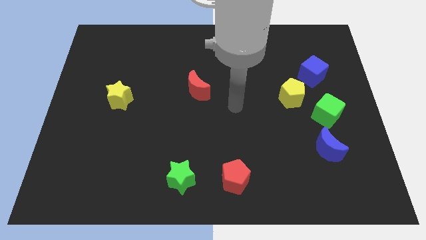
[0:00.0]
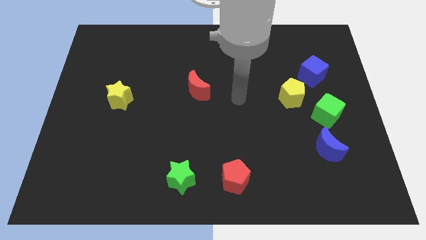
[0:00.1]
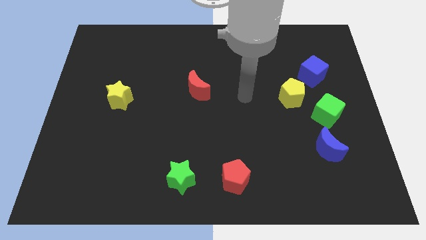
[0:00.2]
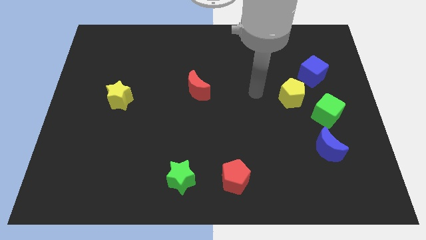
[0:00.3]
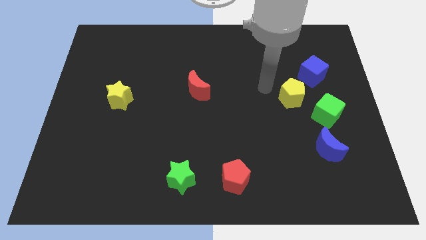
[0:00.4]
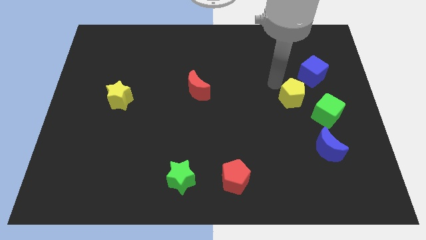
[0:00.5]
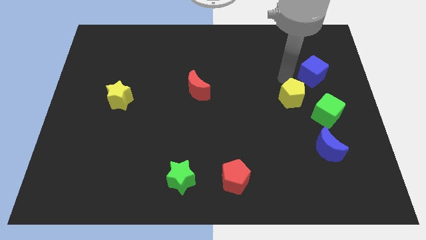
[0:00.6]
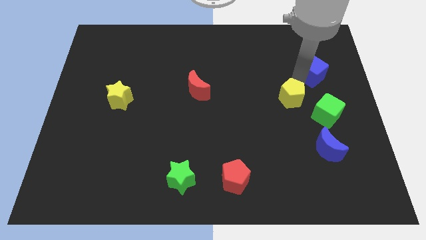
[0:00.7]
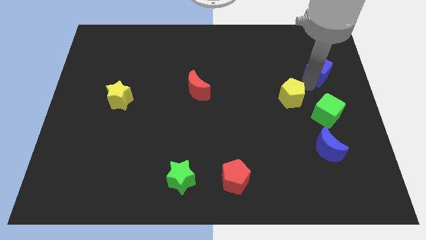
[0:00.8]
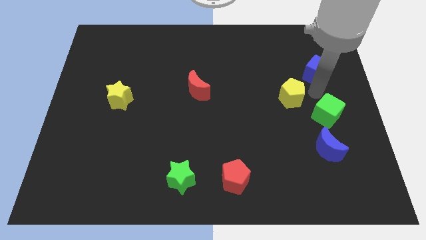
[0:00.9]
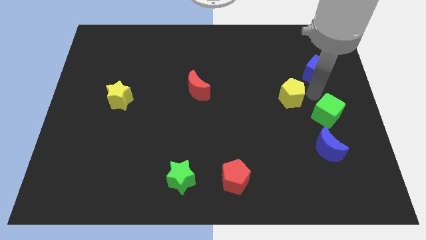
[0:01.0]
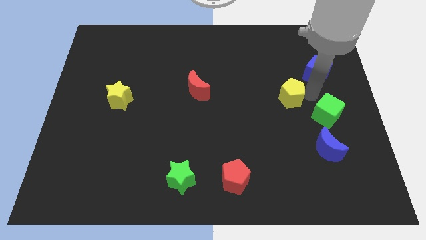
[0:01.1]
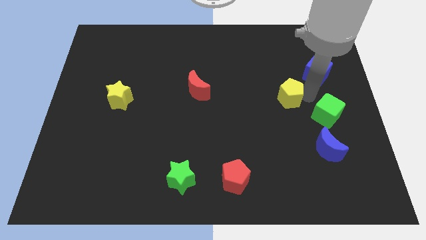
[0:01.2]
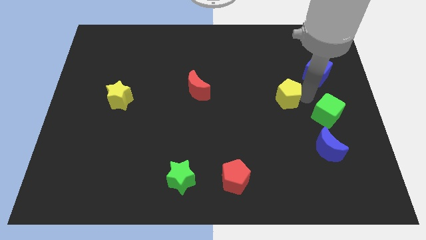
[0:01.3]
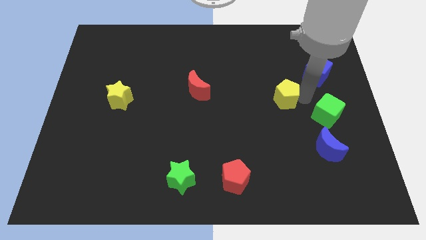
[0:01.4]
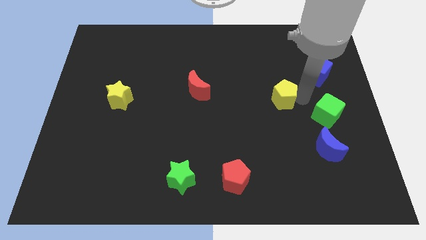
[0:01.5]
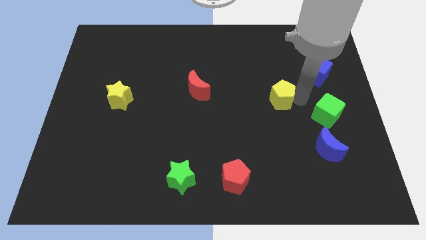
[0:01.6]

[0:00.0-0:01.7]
move the yellow pentagon away from the green cube and blue cube

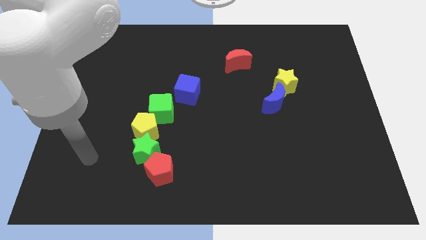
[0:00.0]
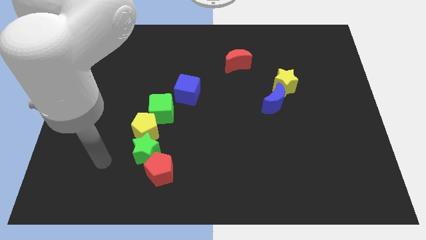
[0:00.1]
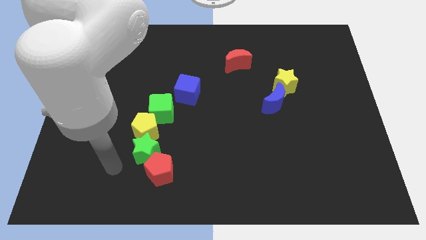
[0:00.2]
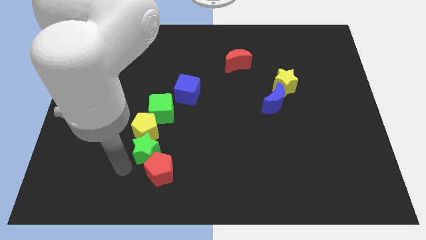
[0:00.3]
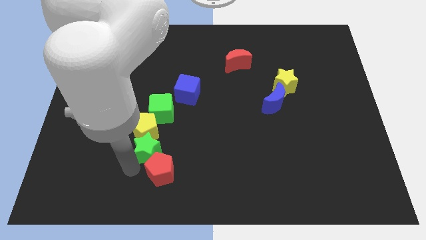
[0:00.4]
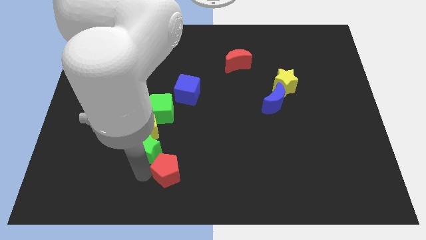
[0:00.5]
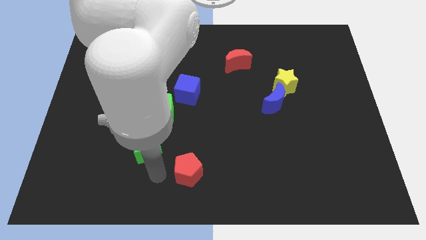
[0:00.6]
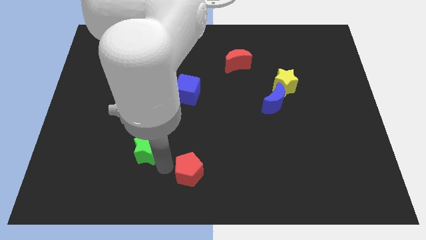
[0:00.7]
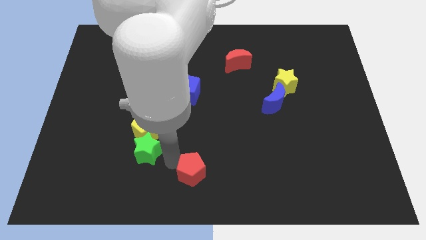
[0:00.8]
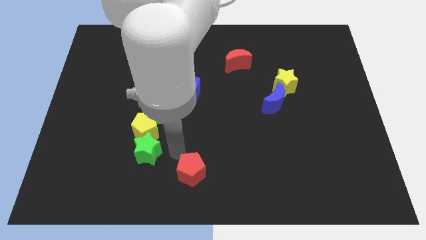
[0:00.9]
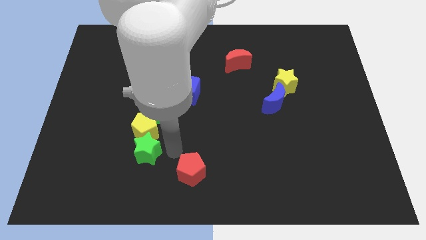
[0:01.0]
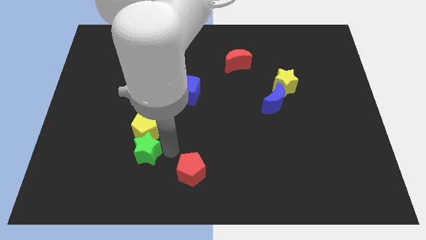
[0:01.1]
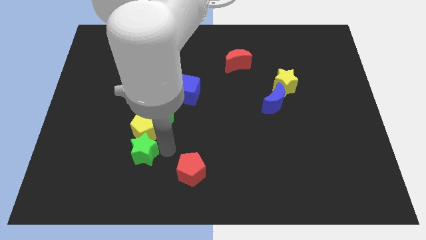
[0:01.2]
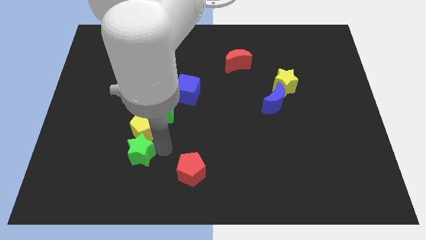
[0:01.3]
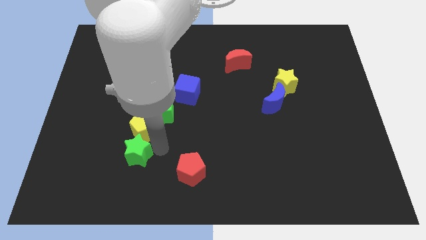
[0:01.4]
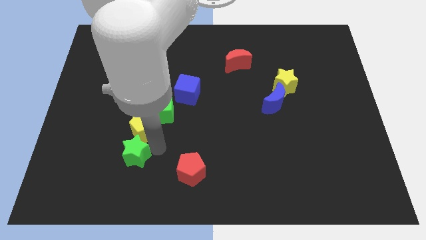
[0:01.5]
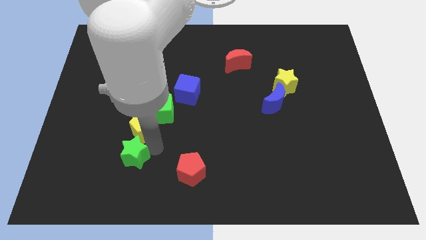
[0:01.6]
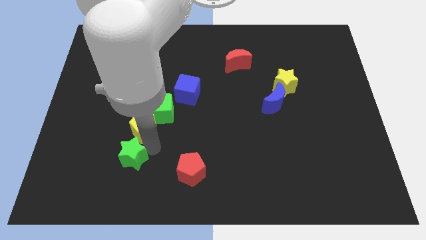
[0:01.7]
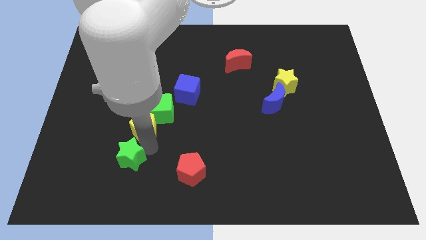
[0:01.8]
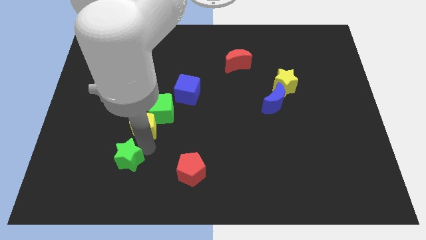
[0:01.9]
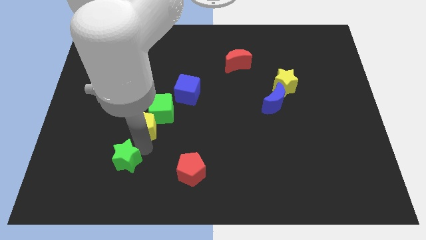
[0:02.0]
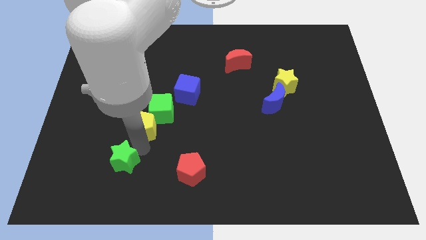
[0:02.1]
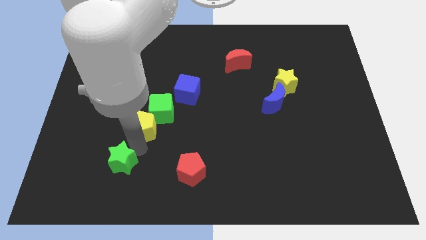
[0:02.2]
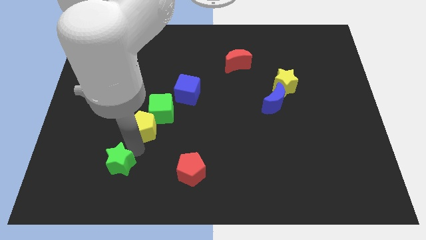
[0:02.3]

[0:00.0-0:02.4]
move the green star away from the yellow pentagon and red pentagon

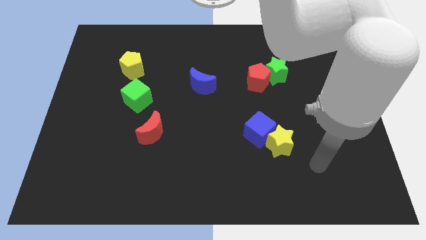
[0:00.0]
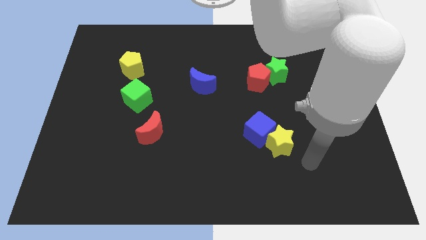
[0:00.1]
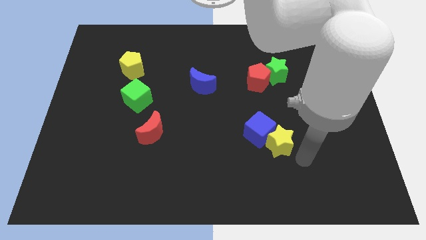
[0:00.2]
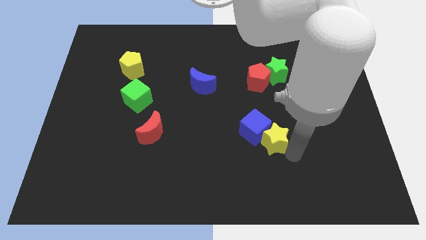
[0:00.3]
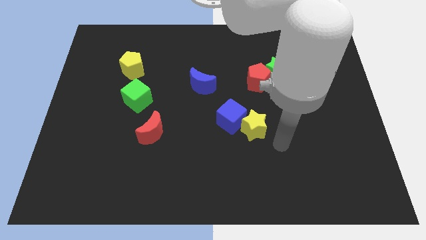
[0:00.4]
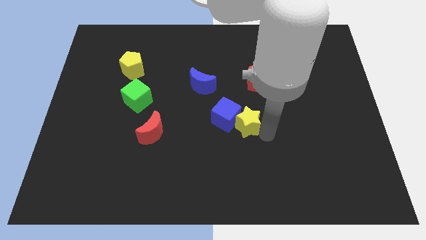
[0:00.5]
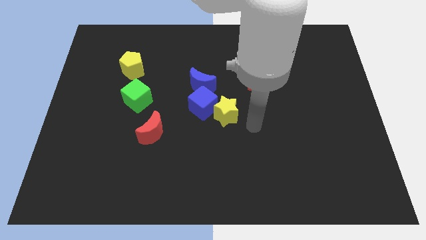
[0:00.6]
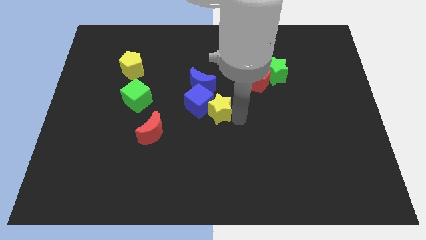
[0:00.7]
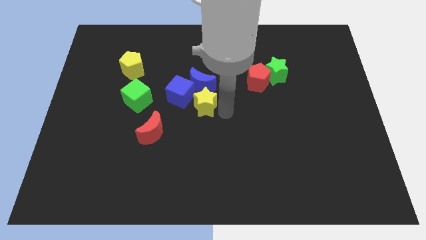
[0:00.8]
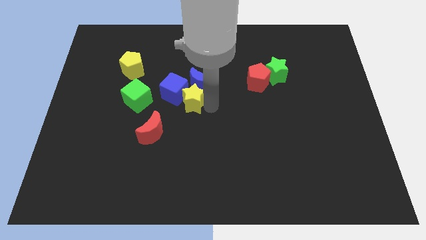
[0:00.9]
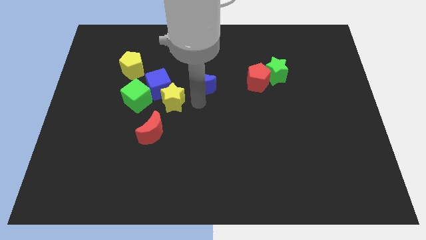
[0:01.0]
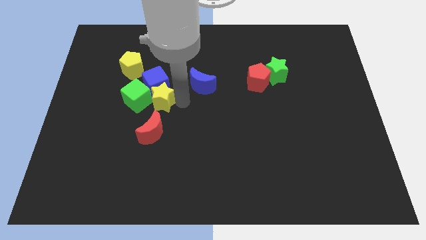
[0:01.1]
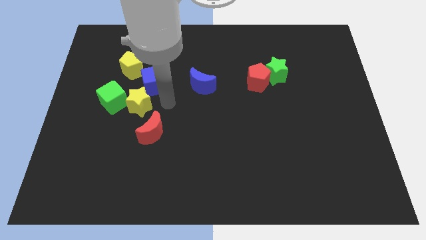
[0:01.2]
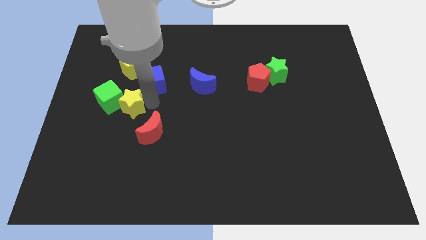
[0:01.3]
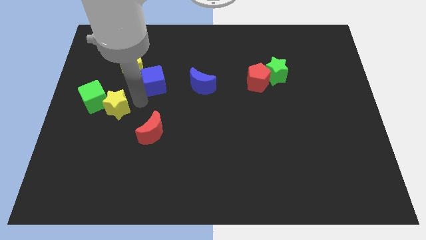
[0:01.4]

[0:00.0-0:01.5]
separate the blue cube from the yellow star

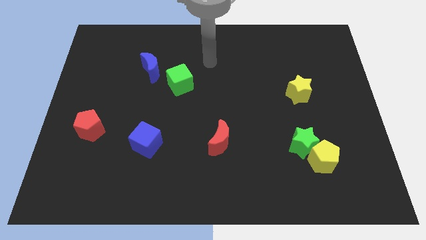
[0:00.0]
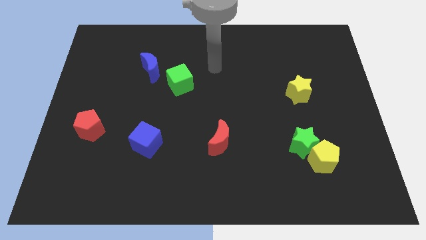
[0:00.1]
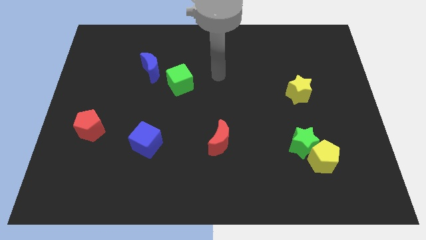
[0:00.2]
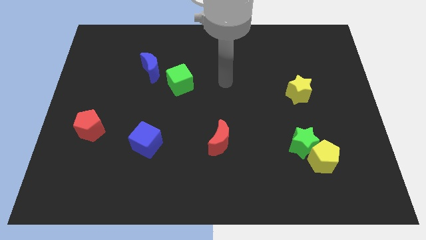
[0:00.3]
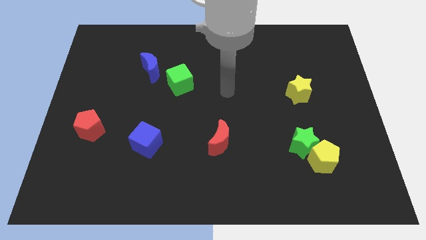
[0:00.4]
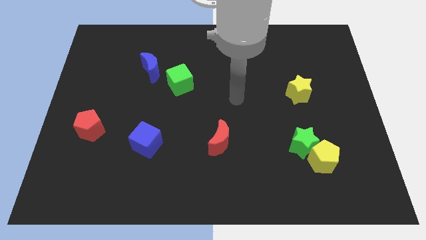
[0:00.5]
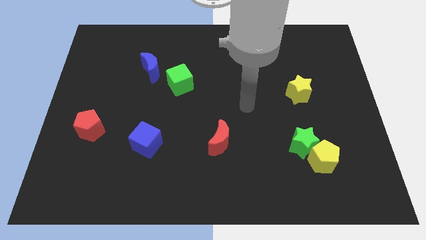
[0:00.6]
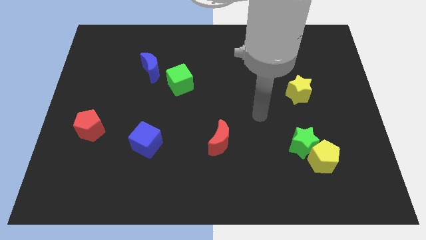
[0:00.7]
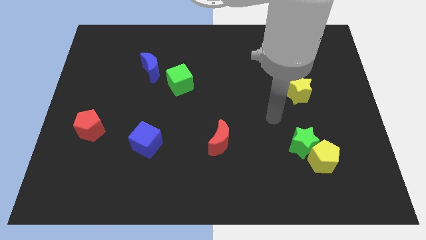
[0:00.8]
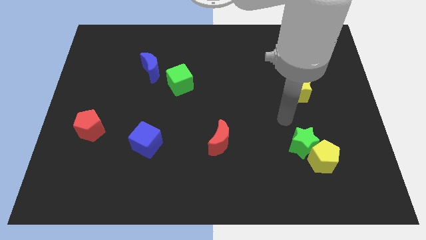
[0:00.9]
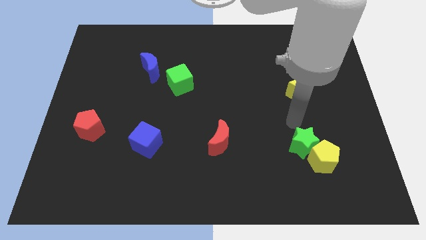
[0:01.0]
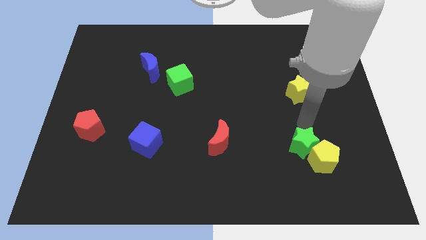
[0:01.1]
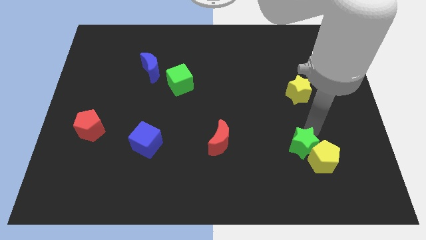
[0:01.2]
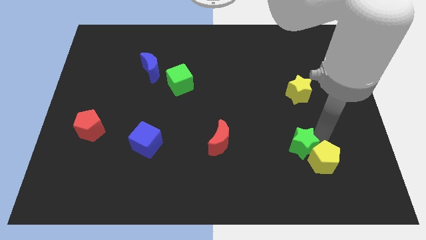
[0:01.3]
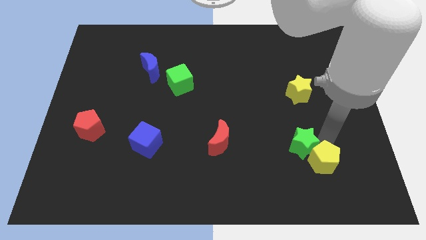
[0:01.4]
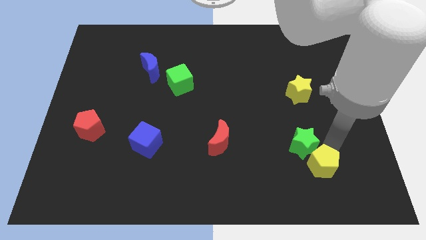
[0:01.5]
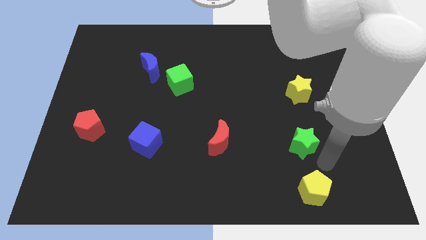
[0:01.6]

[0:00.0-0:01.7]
separate the green star from the yellow pentagon

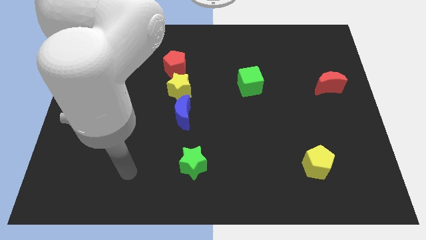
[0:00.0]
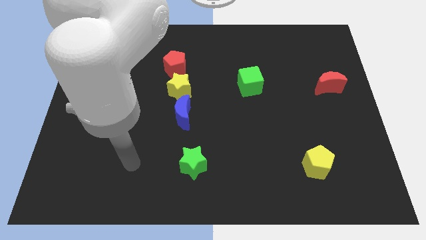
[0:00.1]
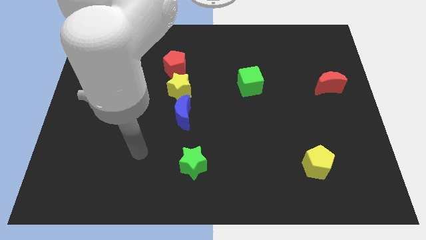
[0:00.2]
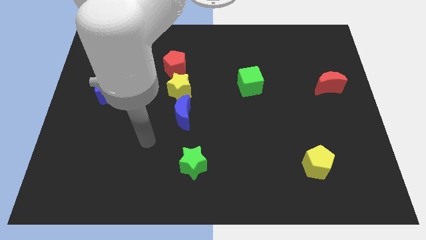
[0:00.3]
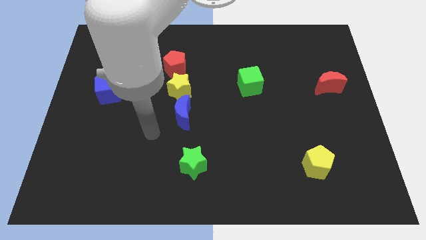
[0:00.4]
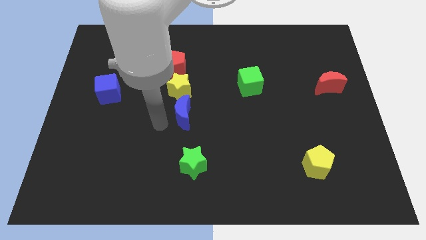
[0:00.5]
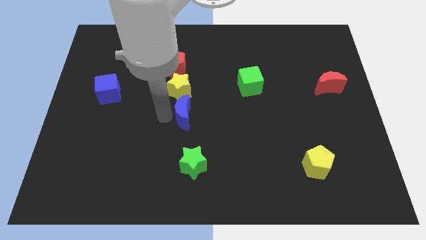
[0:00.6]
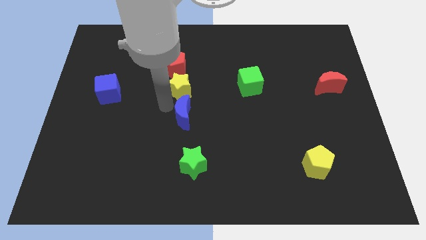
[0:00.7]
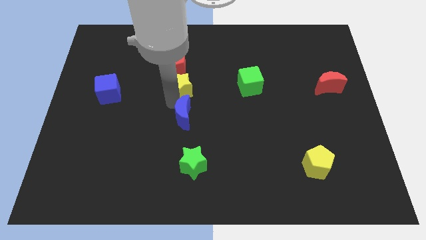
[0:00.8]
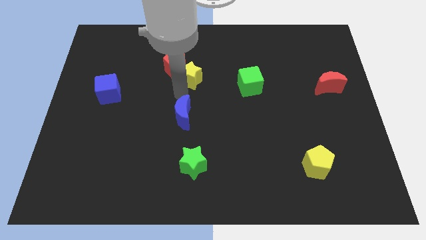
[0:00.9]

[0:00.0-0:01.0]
move the blue moon away from the yellow star

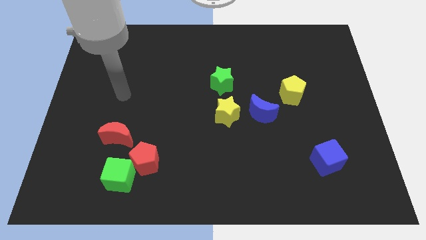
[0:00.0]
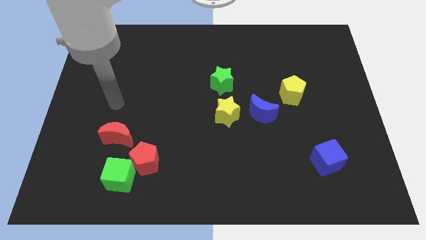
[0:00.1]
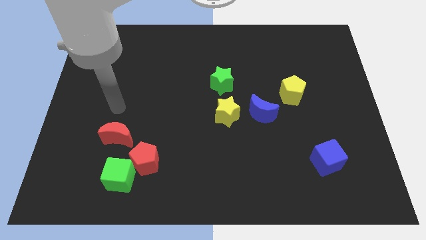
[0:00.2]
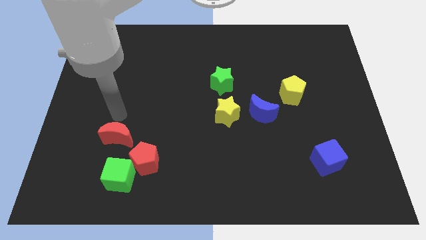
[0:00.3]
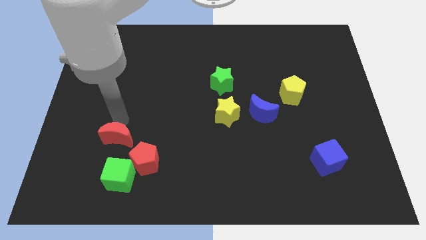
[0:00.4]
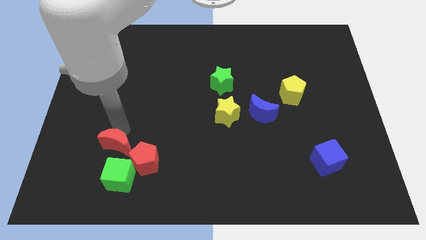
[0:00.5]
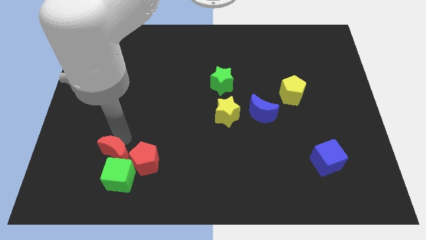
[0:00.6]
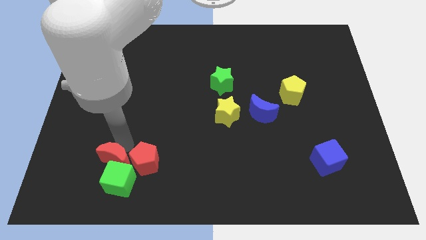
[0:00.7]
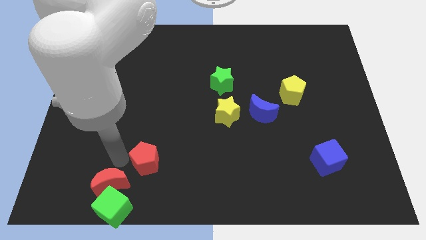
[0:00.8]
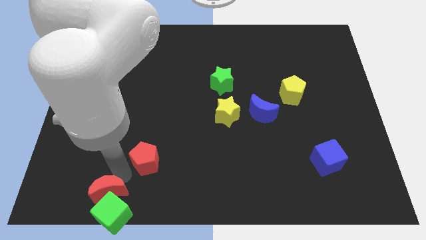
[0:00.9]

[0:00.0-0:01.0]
separate the red pentagon from the green cube and red moon
